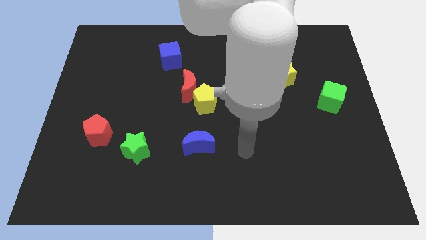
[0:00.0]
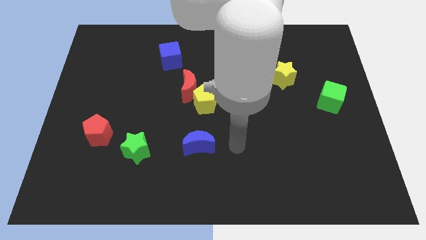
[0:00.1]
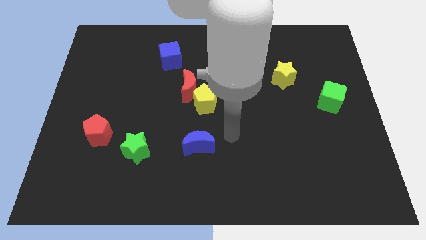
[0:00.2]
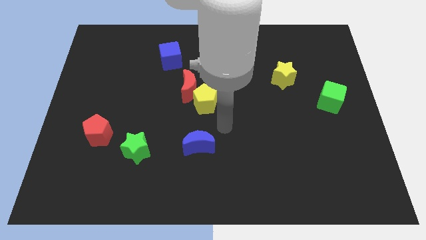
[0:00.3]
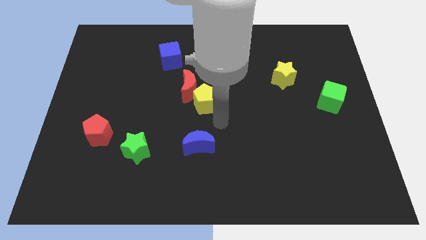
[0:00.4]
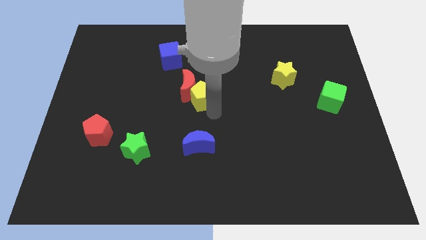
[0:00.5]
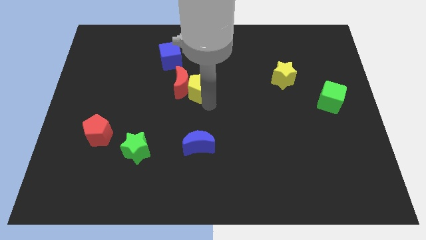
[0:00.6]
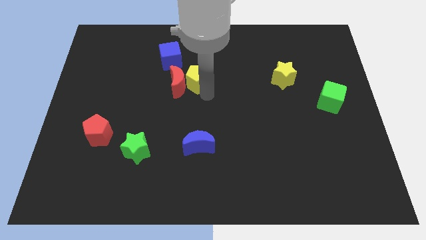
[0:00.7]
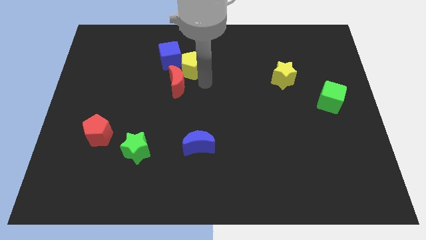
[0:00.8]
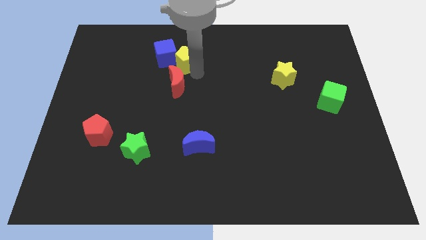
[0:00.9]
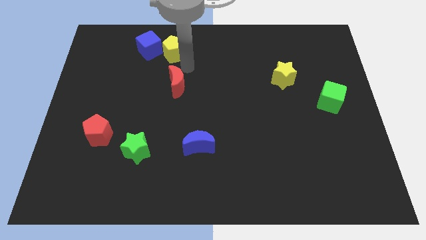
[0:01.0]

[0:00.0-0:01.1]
pull the red moon apart from the yellow pentagon

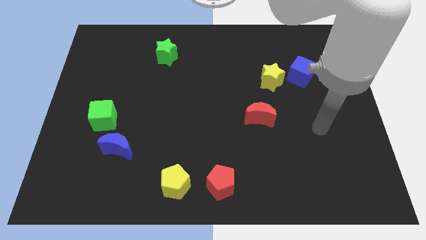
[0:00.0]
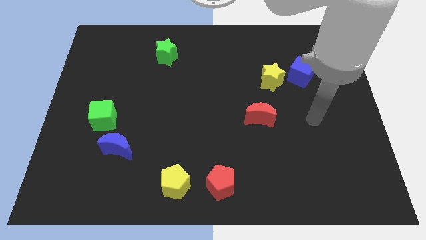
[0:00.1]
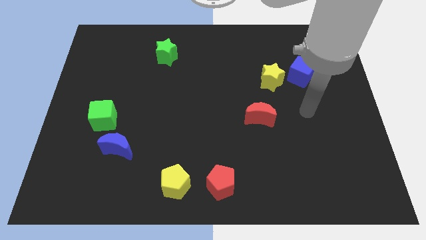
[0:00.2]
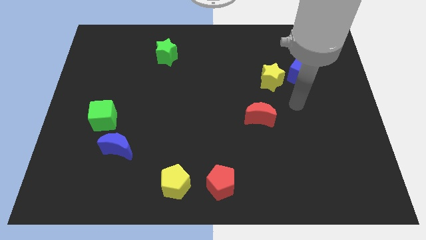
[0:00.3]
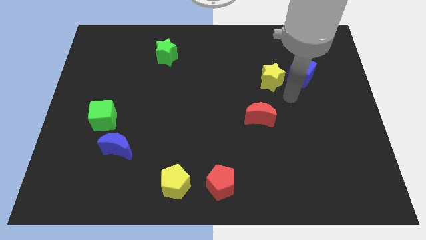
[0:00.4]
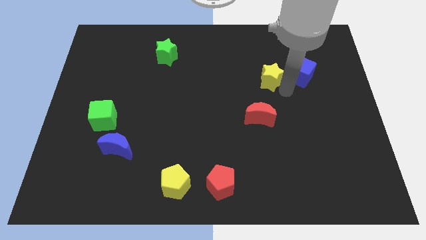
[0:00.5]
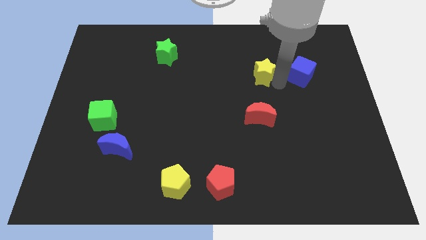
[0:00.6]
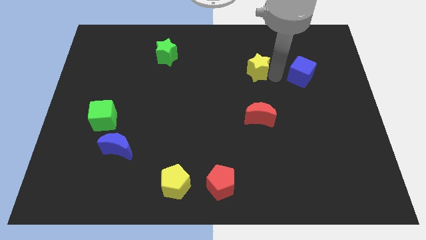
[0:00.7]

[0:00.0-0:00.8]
separate the blue cube from the yellow star

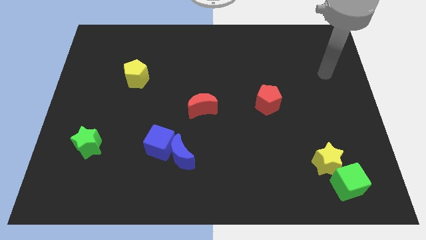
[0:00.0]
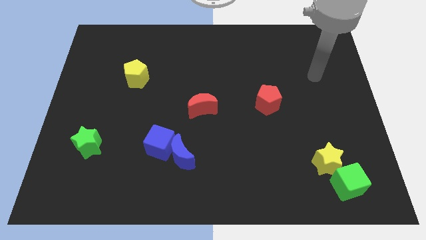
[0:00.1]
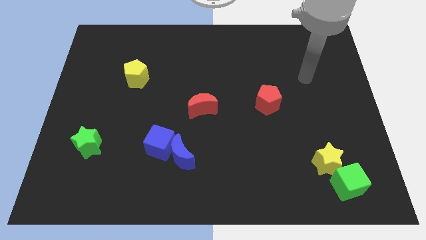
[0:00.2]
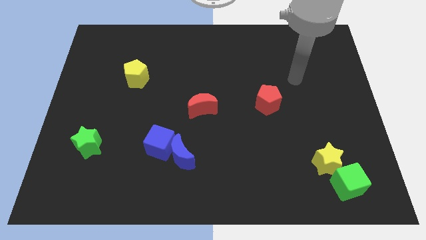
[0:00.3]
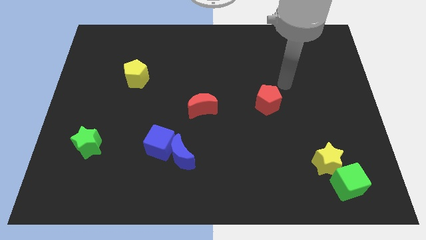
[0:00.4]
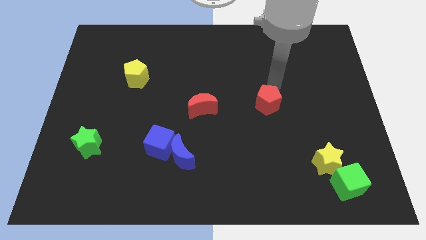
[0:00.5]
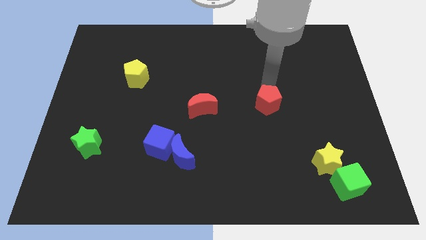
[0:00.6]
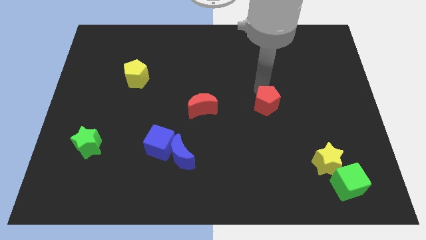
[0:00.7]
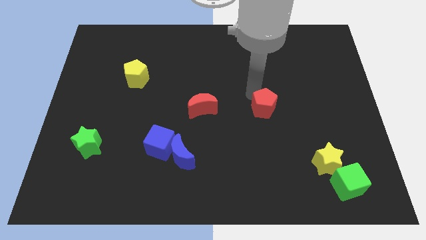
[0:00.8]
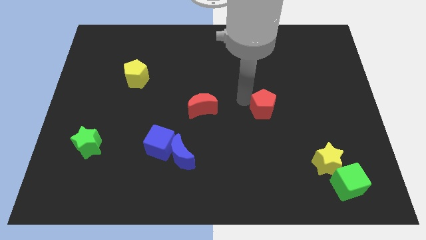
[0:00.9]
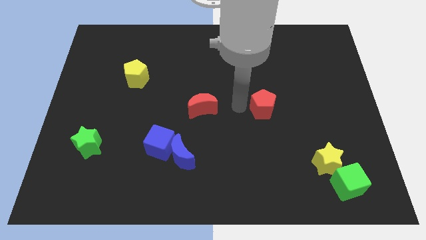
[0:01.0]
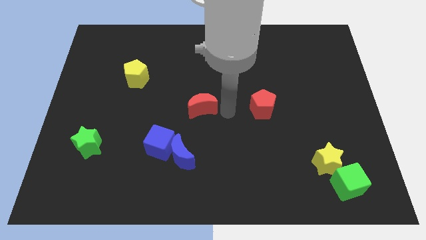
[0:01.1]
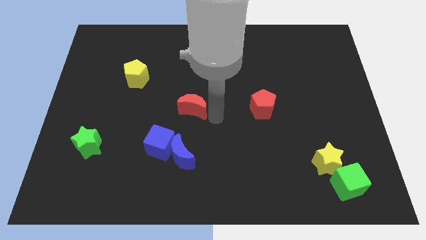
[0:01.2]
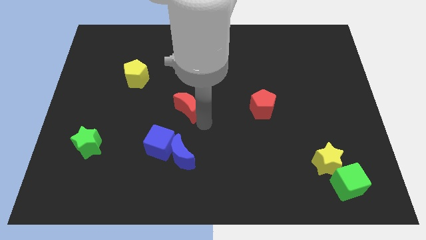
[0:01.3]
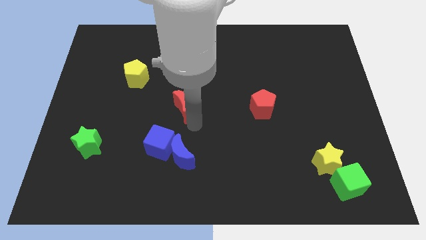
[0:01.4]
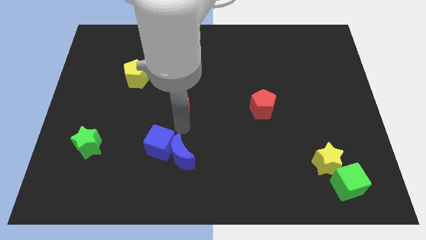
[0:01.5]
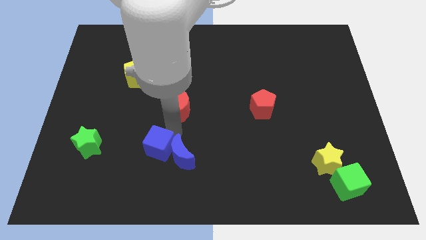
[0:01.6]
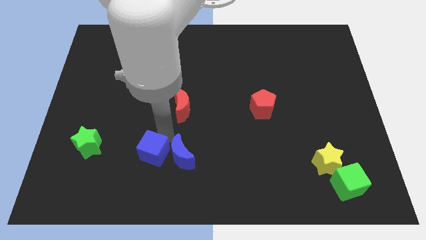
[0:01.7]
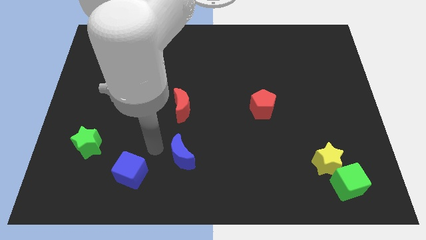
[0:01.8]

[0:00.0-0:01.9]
pull the blue moon apart from the blue cube

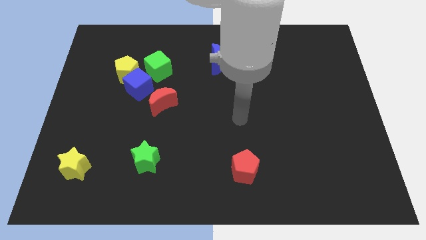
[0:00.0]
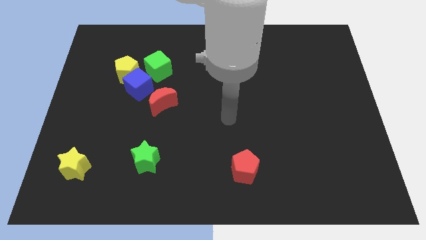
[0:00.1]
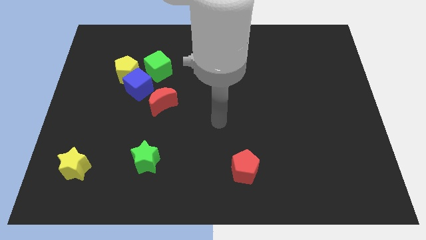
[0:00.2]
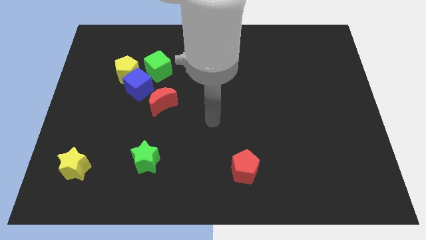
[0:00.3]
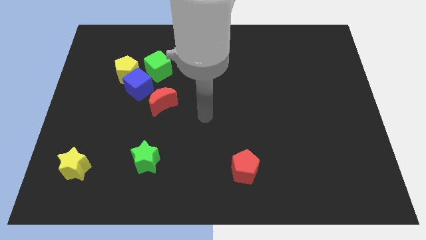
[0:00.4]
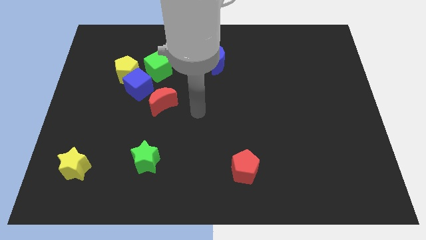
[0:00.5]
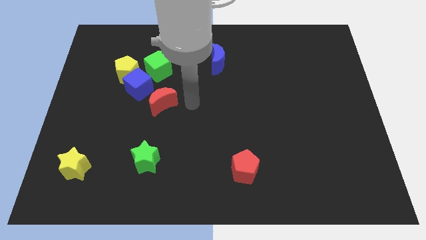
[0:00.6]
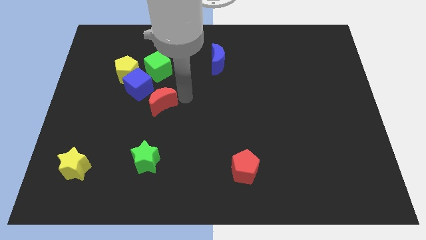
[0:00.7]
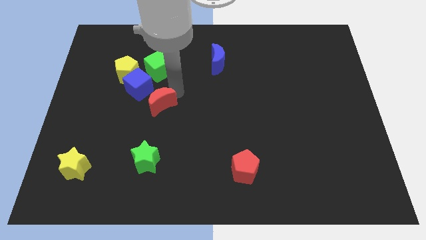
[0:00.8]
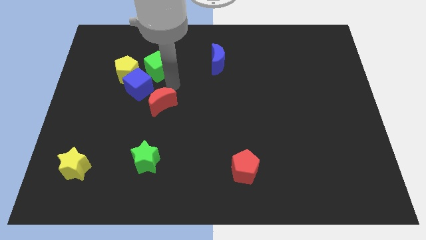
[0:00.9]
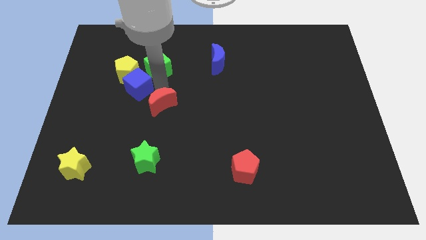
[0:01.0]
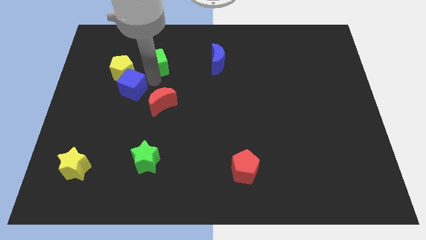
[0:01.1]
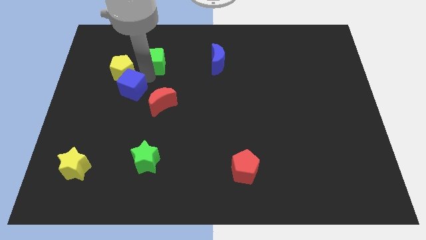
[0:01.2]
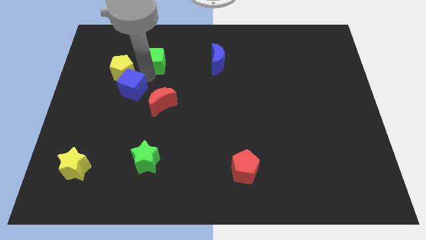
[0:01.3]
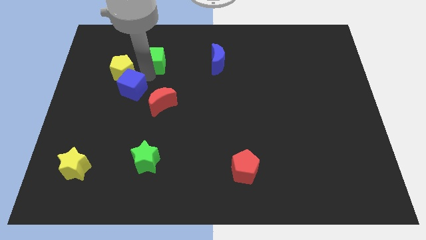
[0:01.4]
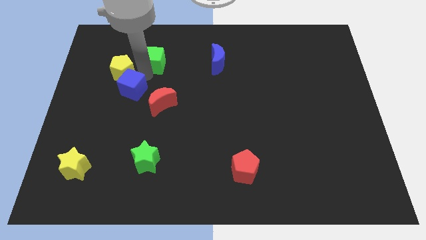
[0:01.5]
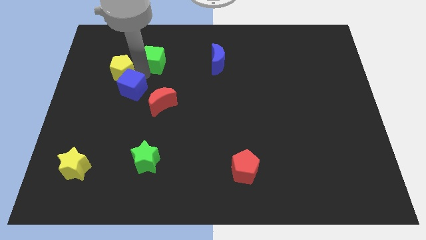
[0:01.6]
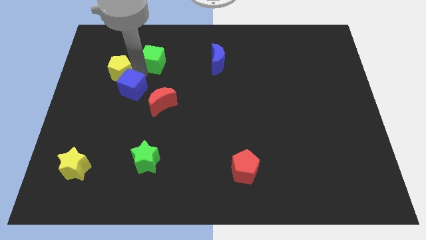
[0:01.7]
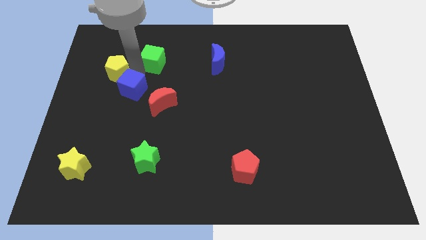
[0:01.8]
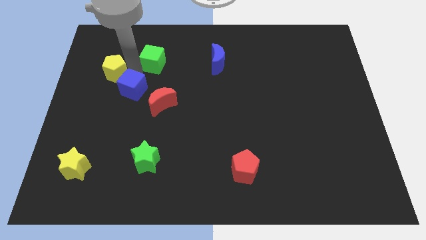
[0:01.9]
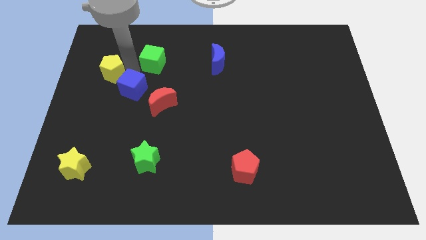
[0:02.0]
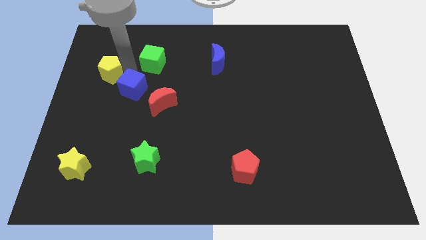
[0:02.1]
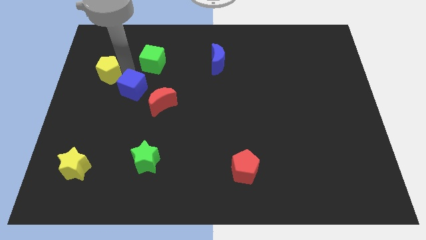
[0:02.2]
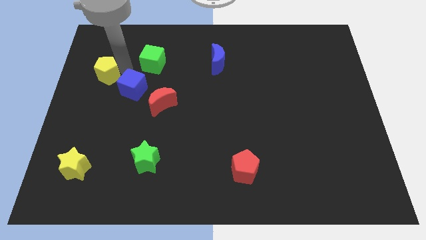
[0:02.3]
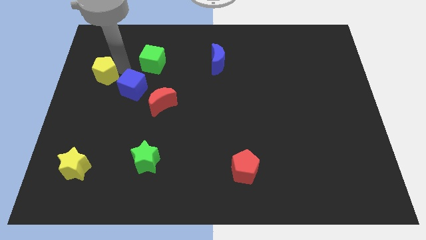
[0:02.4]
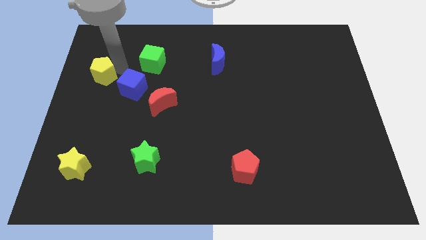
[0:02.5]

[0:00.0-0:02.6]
move the yellow pentagon away from the blue cube and green cube

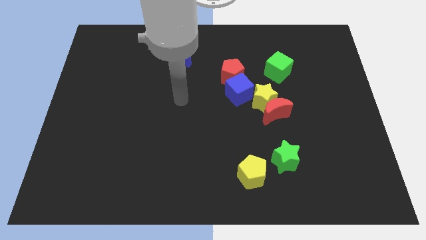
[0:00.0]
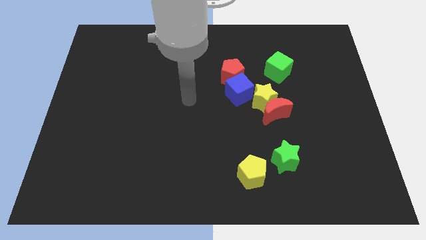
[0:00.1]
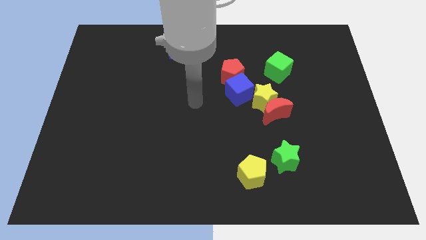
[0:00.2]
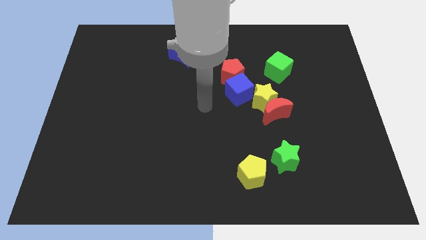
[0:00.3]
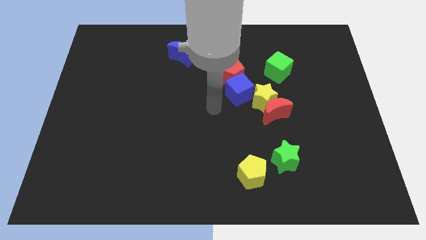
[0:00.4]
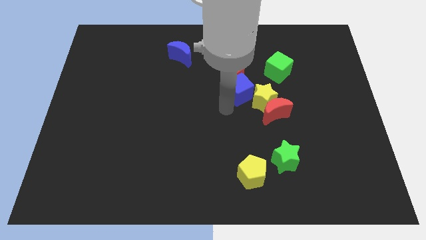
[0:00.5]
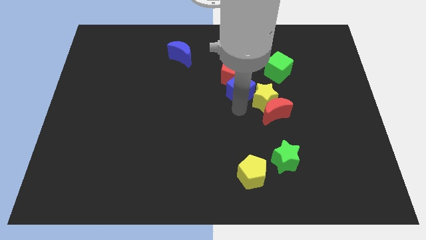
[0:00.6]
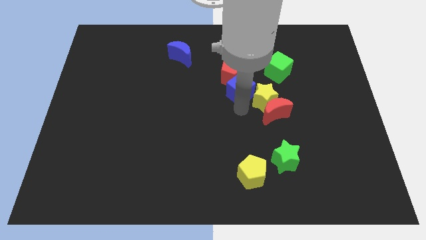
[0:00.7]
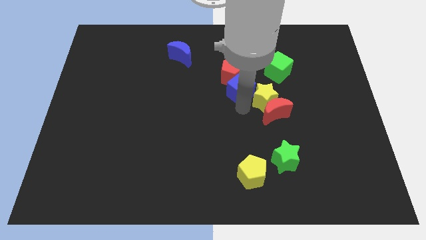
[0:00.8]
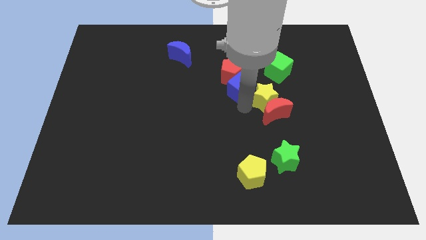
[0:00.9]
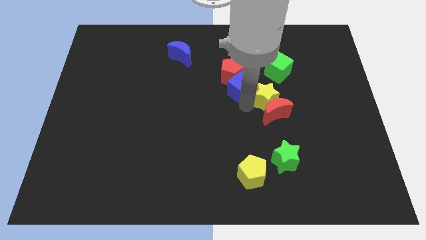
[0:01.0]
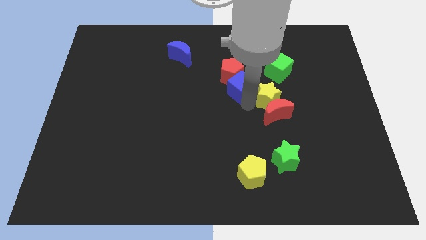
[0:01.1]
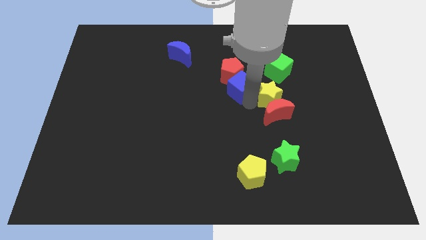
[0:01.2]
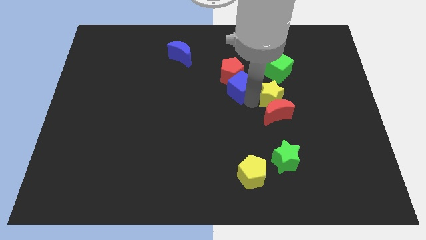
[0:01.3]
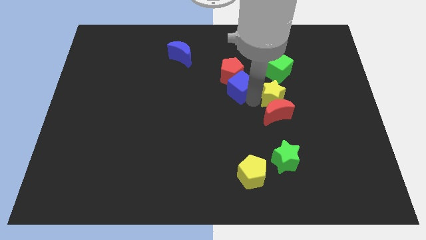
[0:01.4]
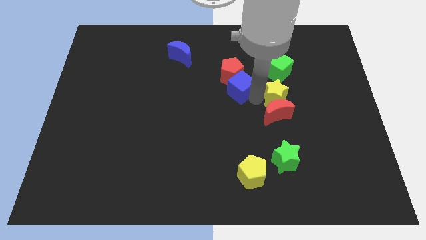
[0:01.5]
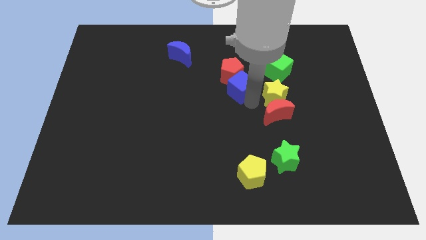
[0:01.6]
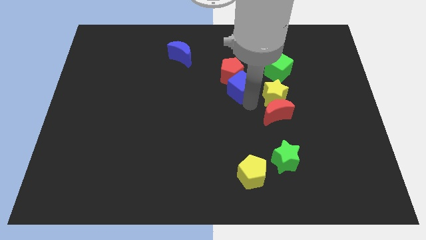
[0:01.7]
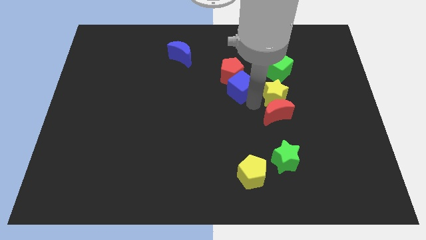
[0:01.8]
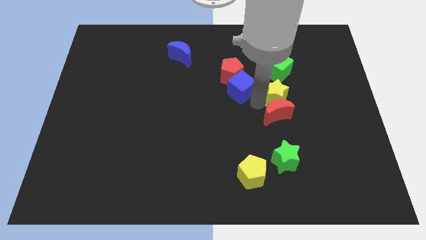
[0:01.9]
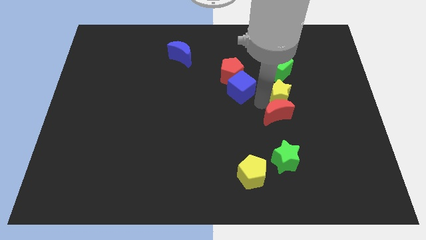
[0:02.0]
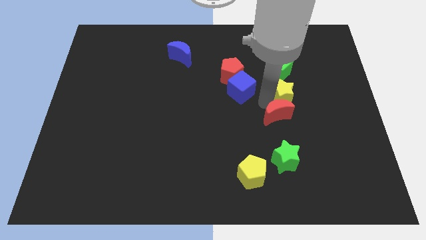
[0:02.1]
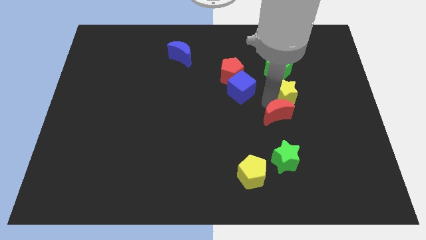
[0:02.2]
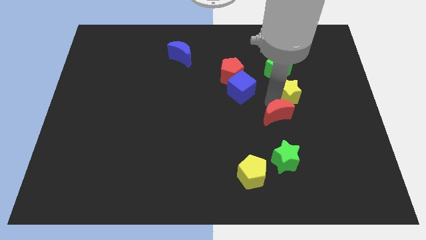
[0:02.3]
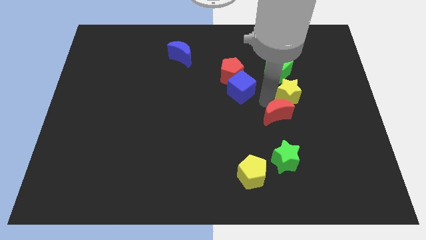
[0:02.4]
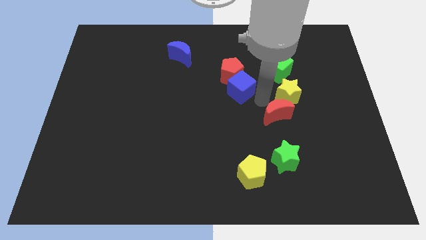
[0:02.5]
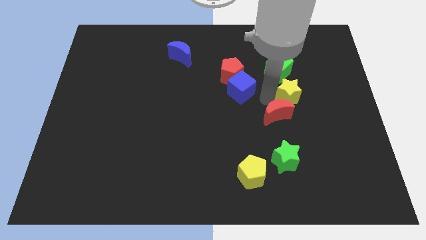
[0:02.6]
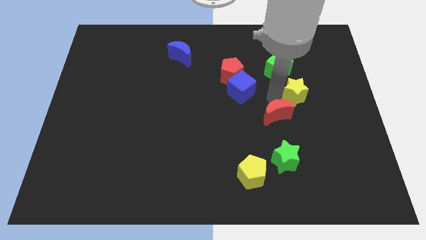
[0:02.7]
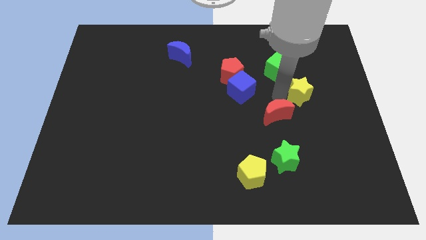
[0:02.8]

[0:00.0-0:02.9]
move the yellow star away from the red moon and blue cube
